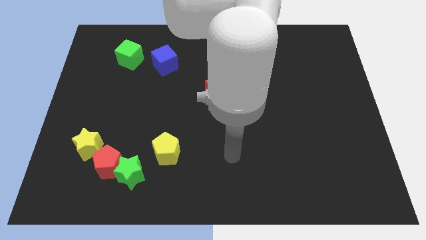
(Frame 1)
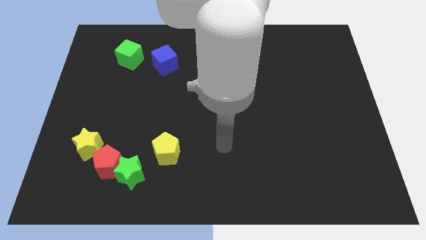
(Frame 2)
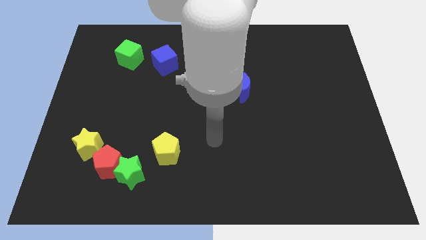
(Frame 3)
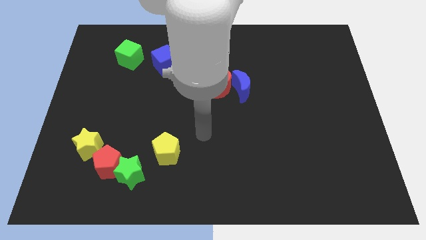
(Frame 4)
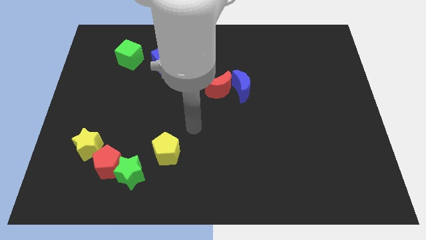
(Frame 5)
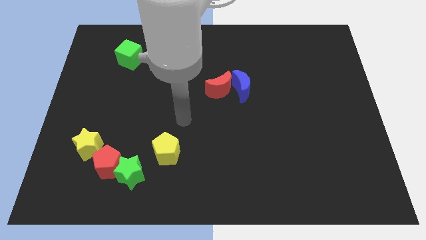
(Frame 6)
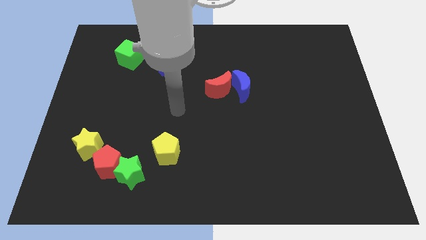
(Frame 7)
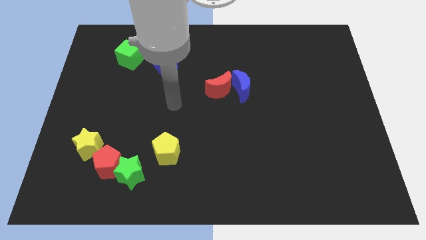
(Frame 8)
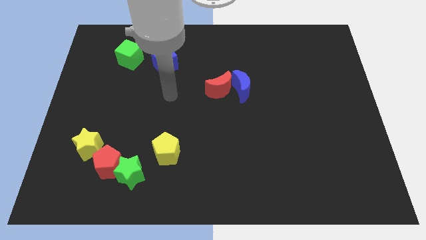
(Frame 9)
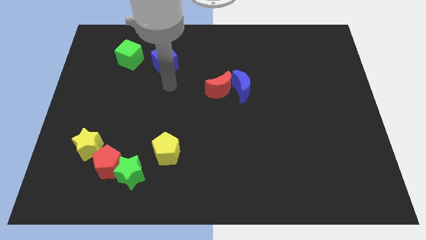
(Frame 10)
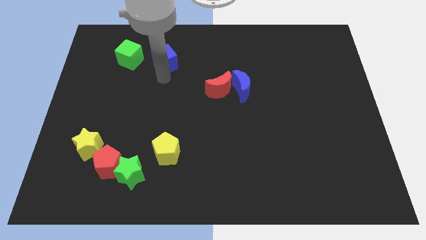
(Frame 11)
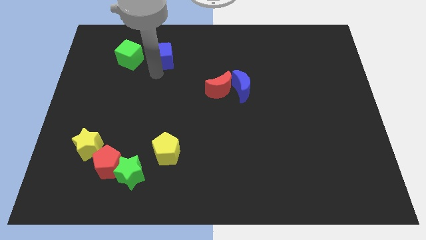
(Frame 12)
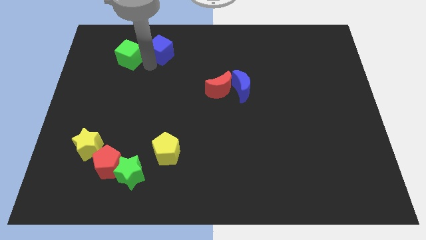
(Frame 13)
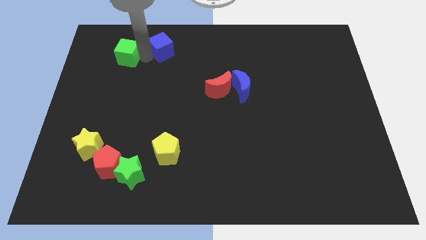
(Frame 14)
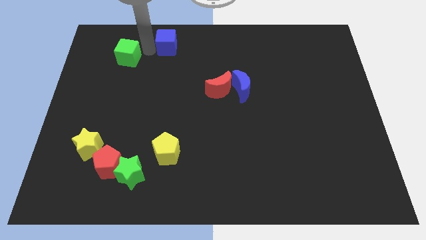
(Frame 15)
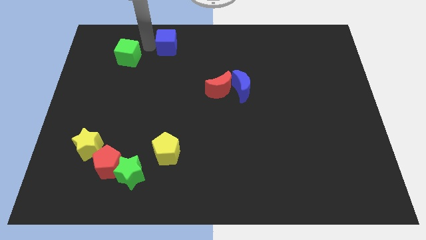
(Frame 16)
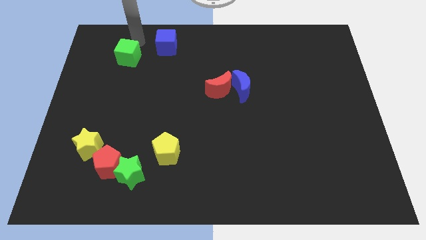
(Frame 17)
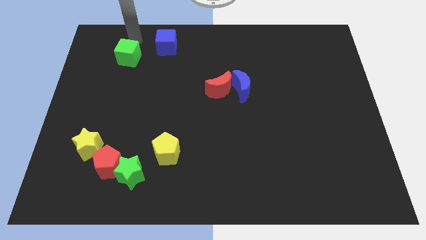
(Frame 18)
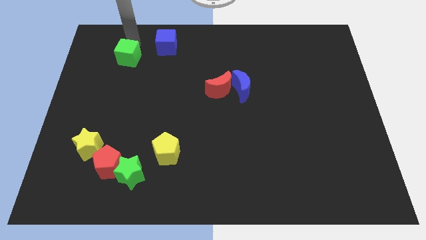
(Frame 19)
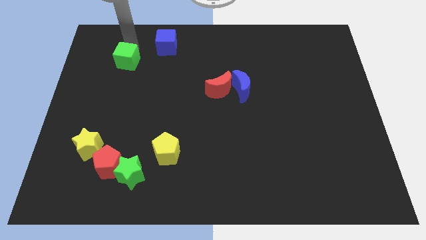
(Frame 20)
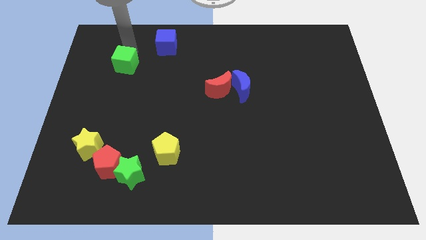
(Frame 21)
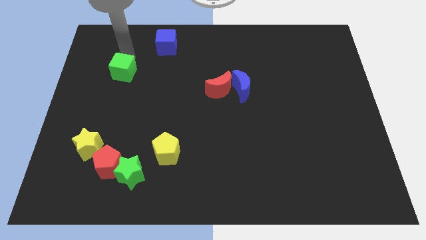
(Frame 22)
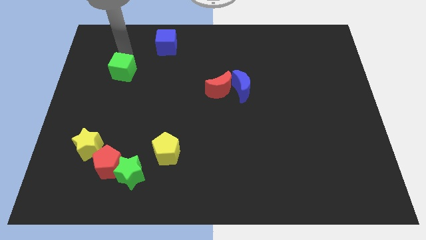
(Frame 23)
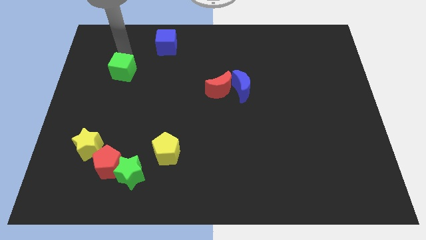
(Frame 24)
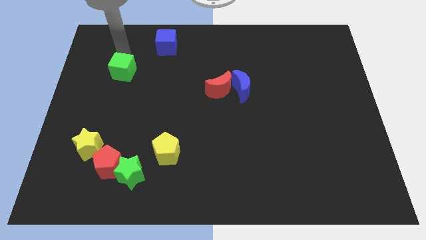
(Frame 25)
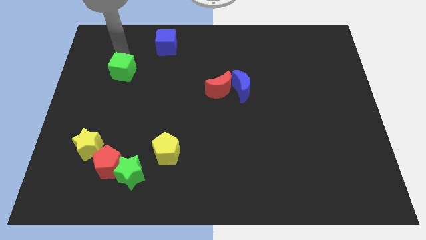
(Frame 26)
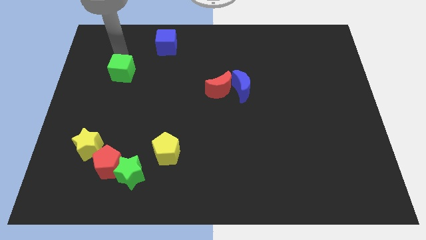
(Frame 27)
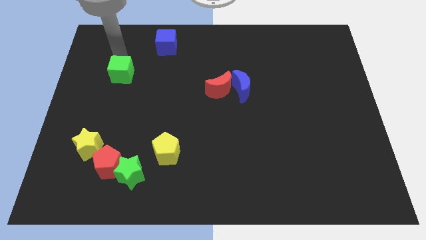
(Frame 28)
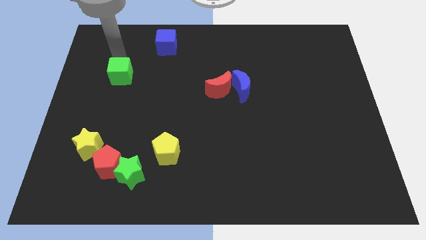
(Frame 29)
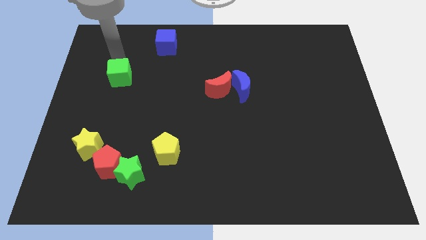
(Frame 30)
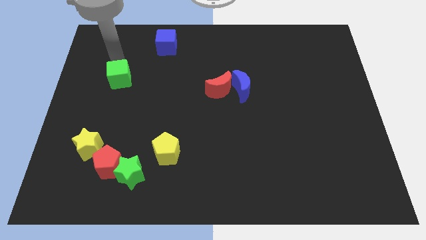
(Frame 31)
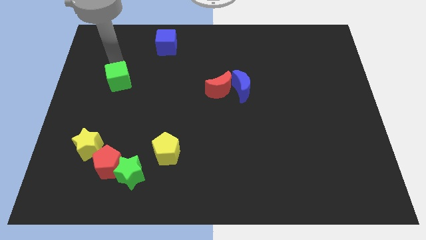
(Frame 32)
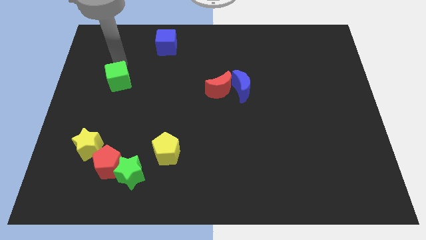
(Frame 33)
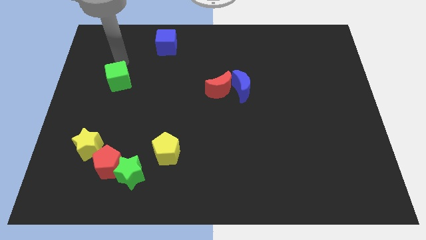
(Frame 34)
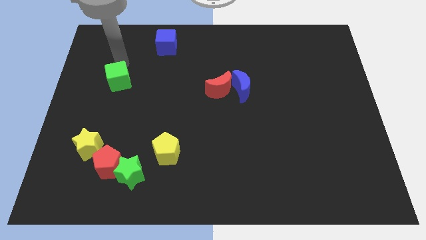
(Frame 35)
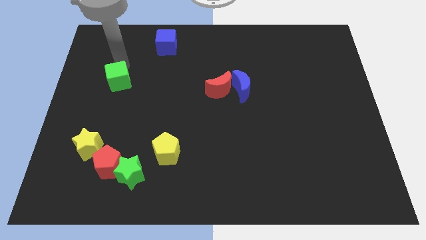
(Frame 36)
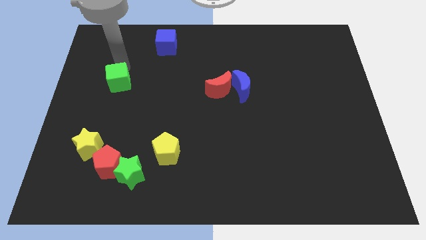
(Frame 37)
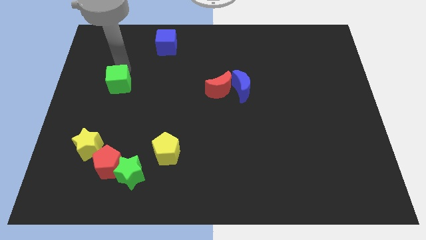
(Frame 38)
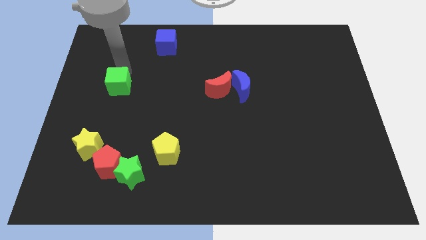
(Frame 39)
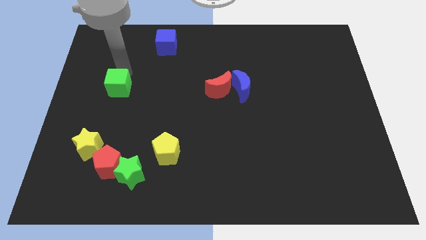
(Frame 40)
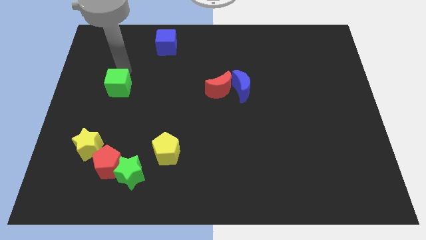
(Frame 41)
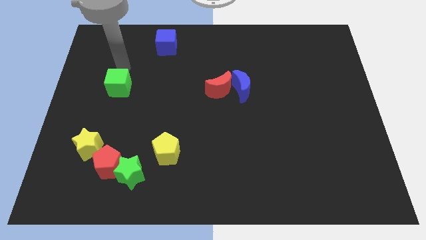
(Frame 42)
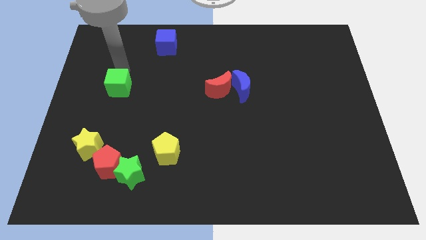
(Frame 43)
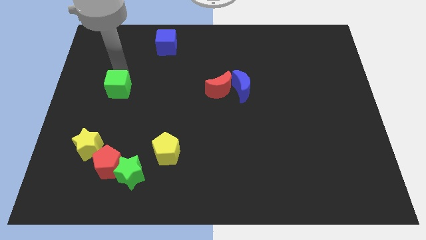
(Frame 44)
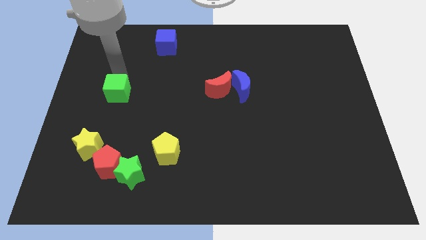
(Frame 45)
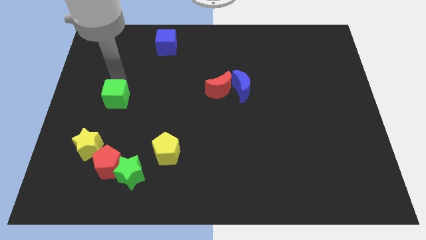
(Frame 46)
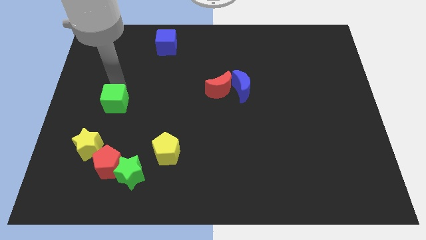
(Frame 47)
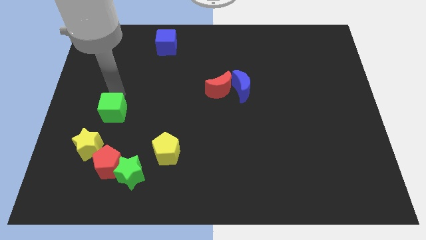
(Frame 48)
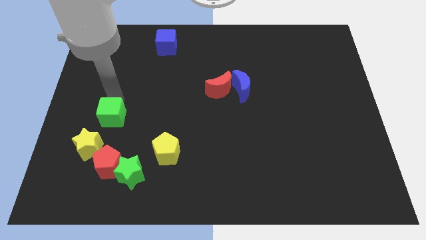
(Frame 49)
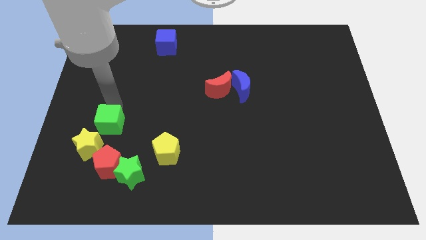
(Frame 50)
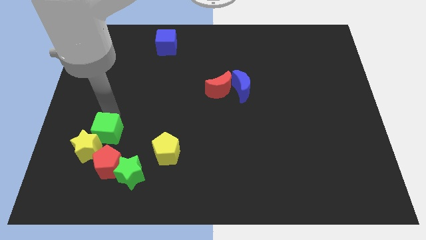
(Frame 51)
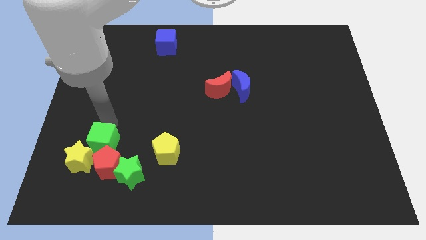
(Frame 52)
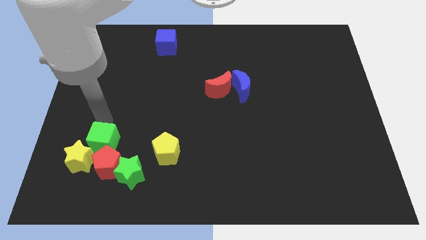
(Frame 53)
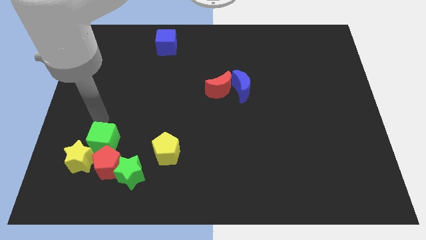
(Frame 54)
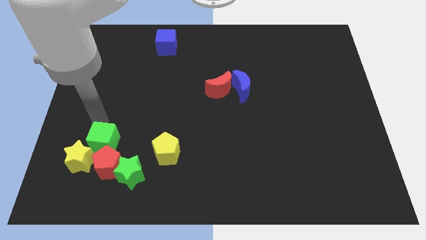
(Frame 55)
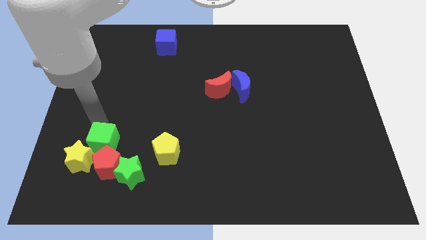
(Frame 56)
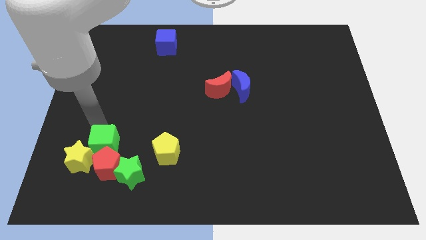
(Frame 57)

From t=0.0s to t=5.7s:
put the green cube close to the red pentagon

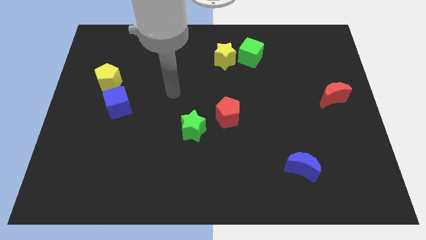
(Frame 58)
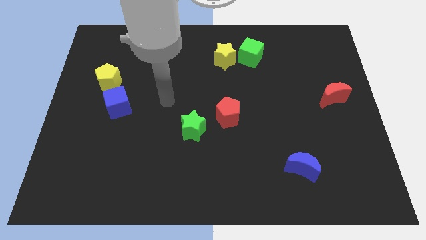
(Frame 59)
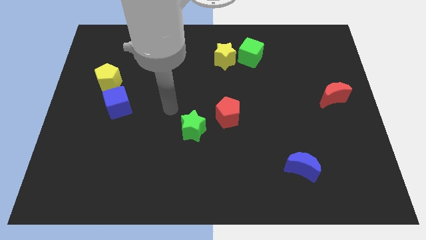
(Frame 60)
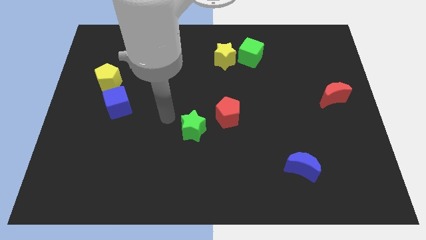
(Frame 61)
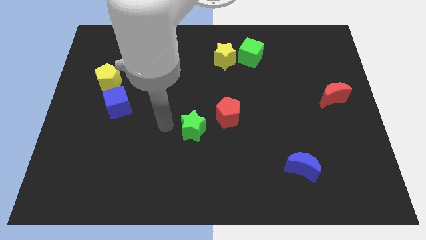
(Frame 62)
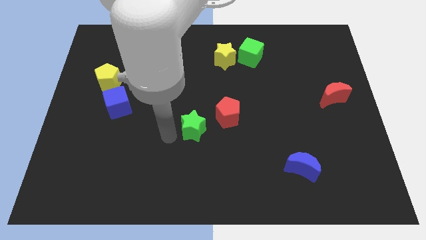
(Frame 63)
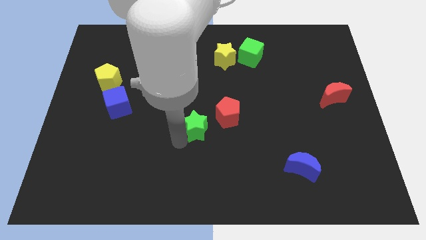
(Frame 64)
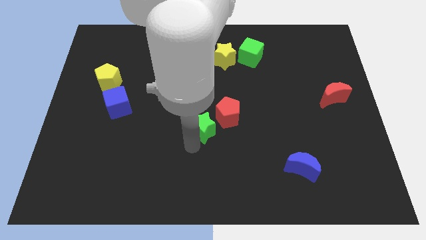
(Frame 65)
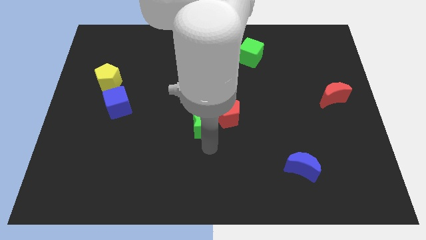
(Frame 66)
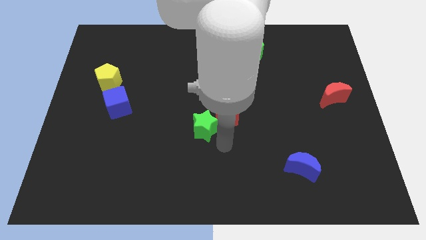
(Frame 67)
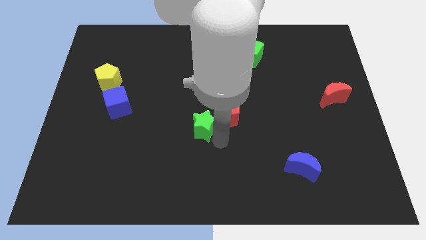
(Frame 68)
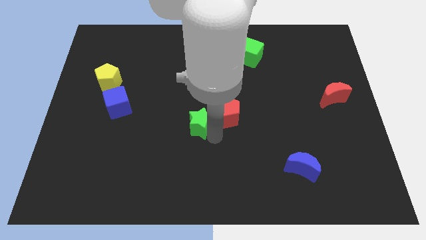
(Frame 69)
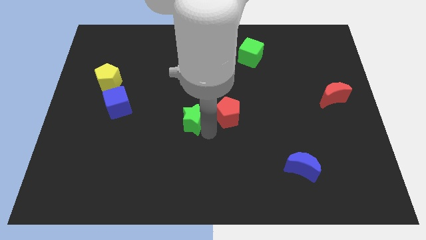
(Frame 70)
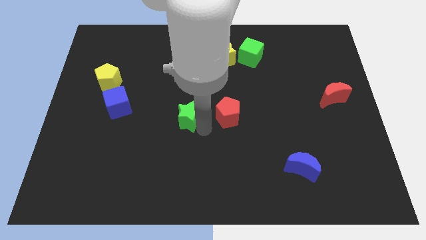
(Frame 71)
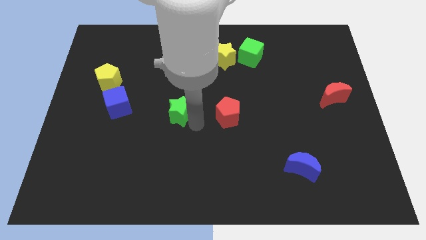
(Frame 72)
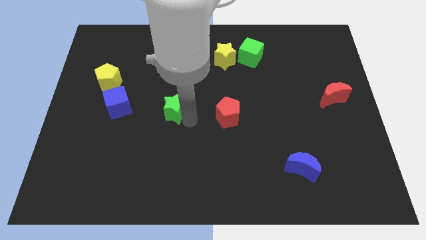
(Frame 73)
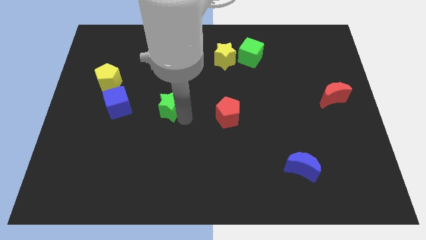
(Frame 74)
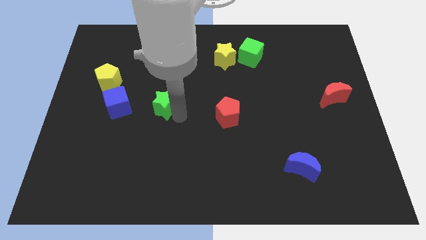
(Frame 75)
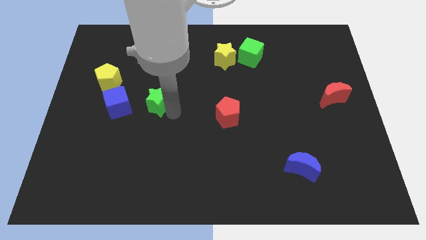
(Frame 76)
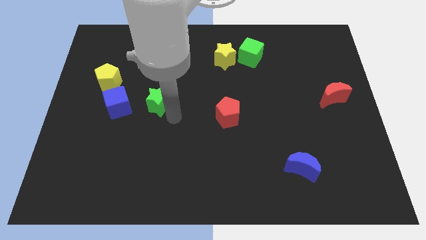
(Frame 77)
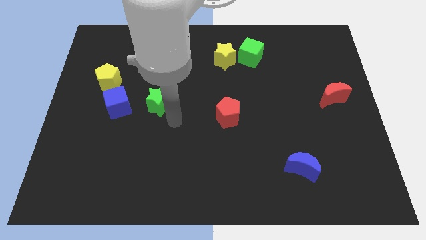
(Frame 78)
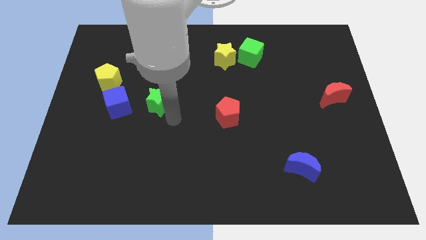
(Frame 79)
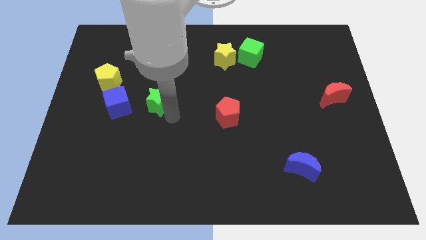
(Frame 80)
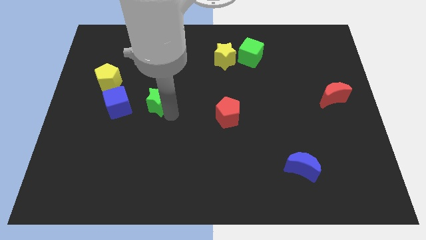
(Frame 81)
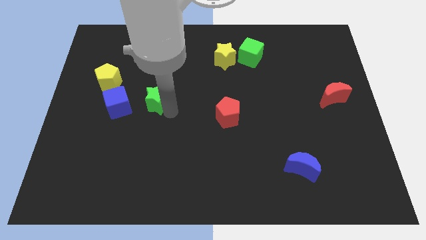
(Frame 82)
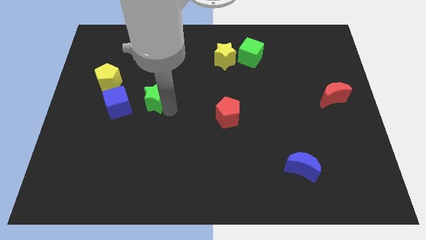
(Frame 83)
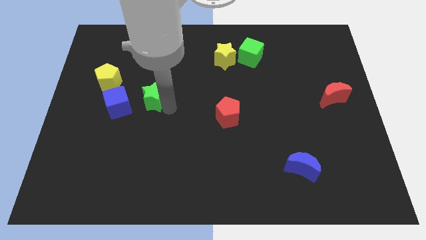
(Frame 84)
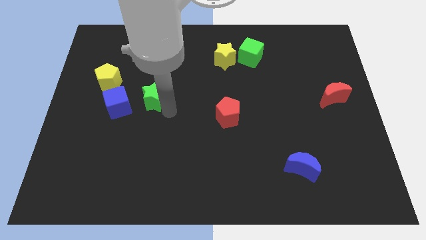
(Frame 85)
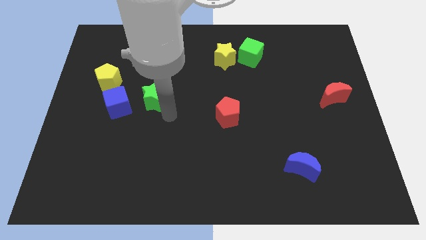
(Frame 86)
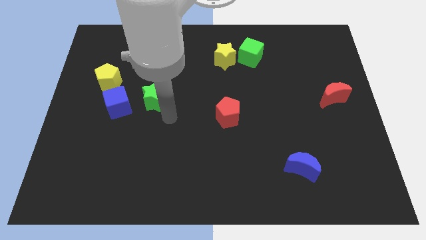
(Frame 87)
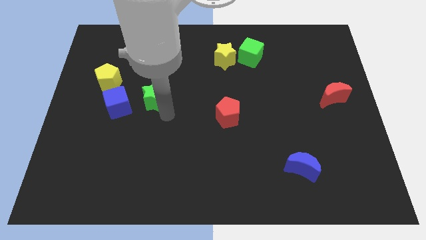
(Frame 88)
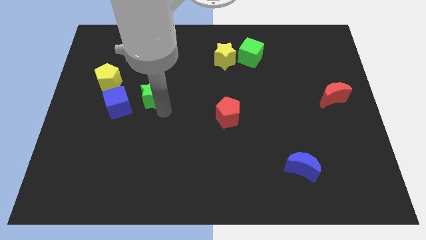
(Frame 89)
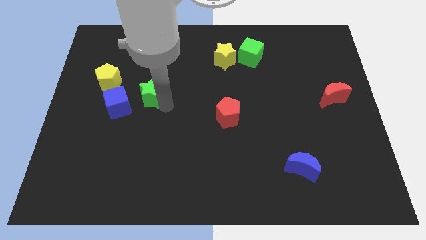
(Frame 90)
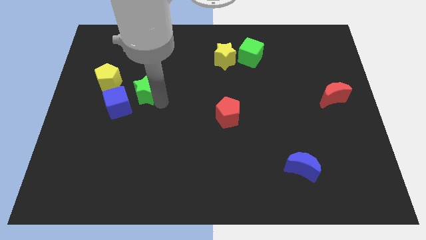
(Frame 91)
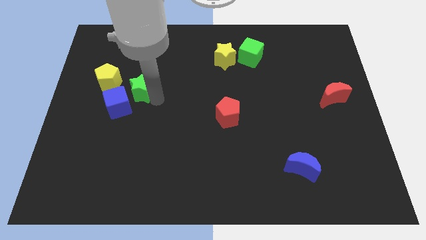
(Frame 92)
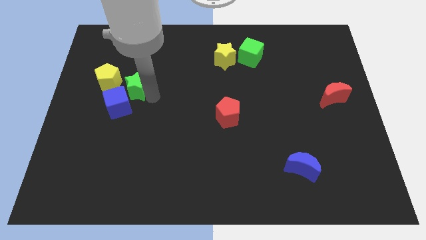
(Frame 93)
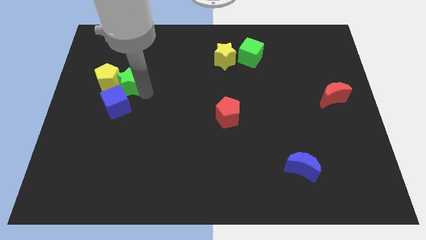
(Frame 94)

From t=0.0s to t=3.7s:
push the green star towards the yellow pentagon
